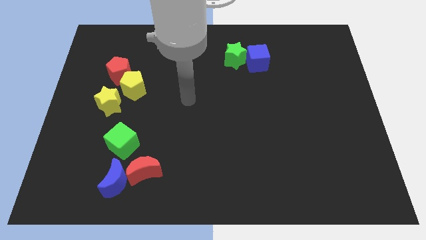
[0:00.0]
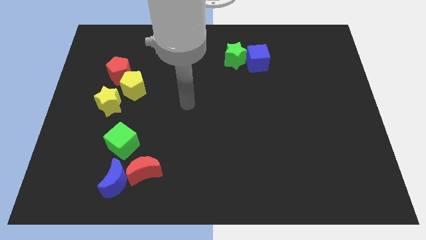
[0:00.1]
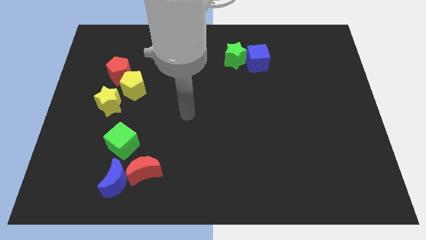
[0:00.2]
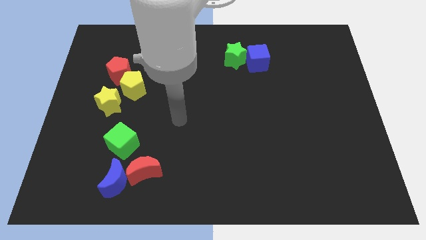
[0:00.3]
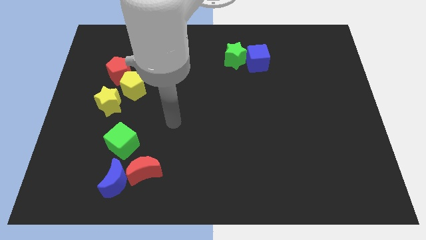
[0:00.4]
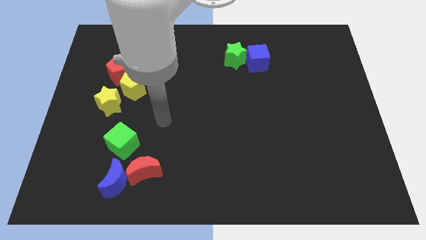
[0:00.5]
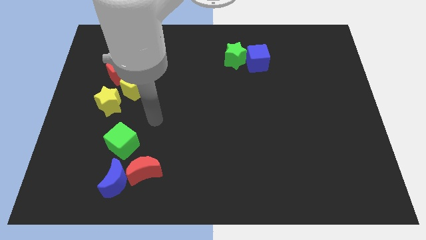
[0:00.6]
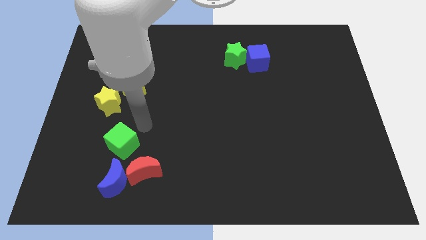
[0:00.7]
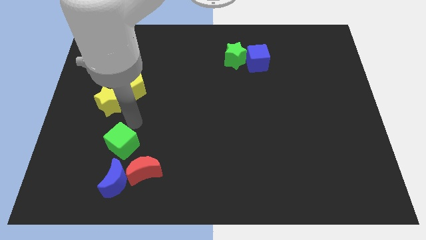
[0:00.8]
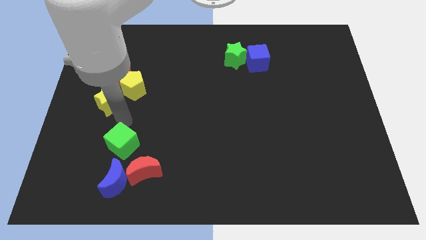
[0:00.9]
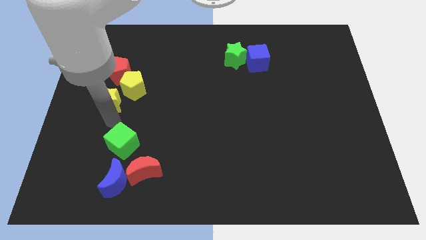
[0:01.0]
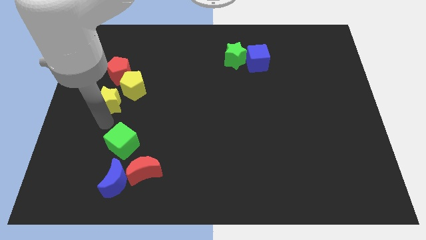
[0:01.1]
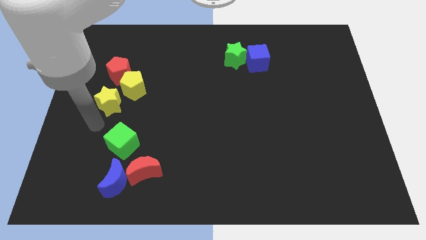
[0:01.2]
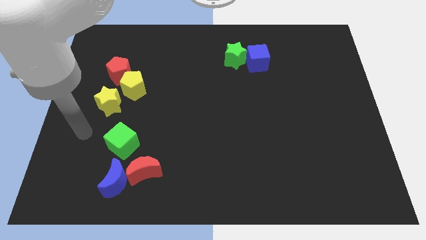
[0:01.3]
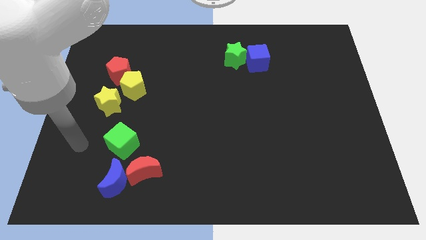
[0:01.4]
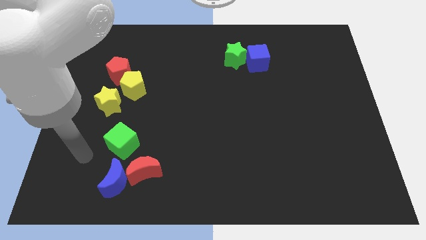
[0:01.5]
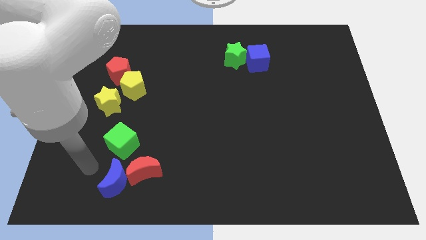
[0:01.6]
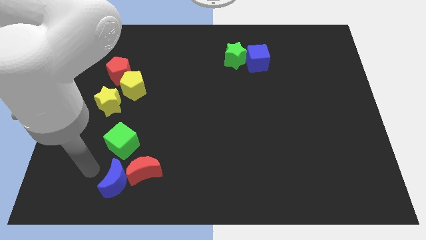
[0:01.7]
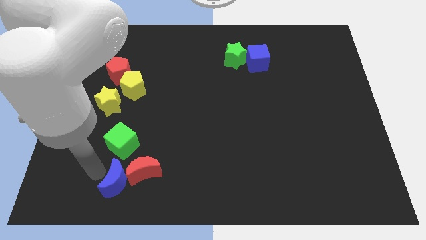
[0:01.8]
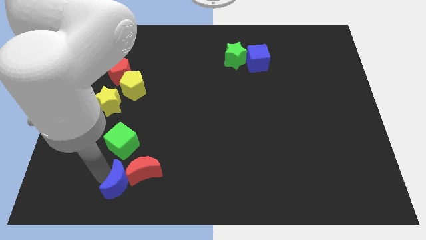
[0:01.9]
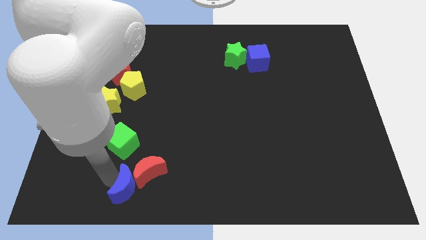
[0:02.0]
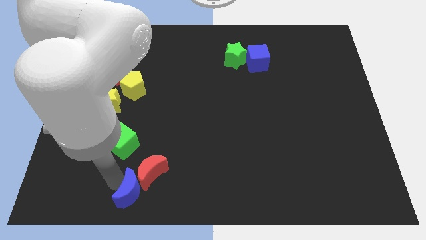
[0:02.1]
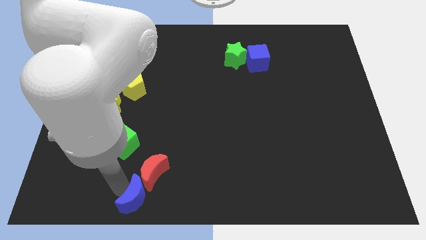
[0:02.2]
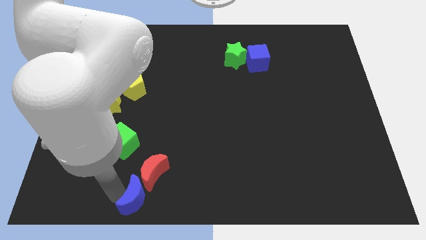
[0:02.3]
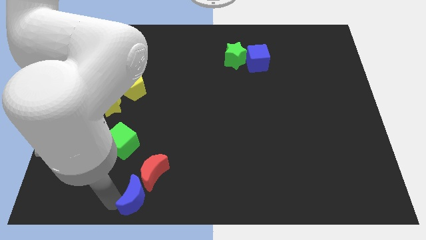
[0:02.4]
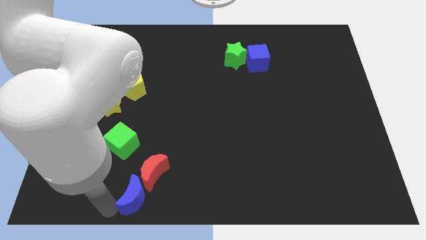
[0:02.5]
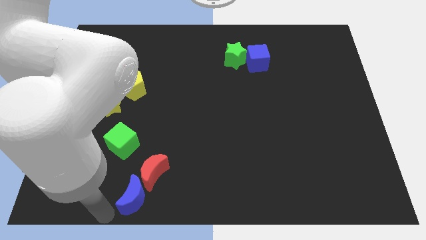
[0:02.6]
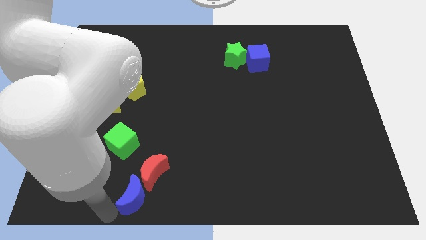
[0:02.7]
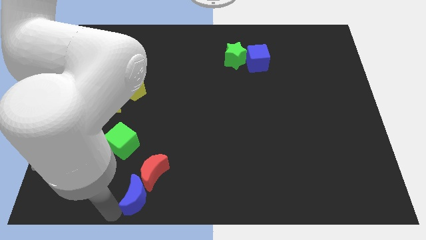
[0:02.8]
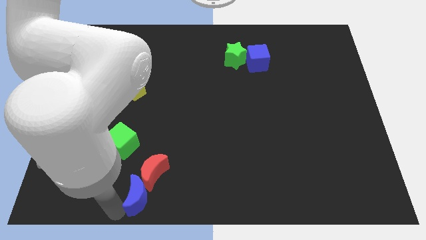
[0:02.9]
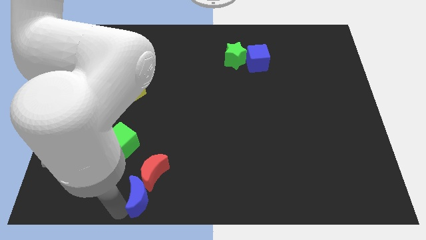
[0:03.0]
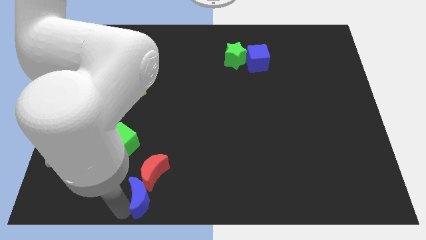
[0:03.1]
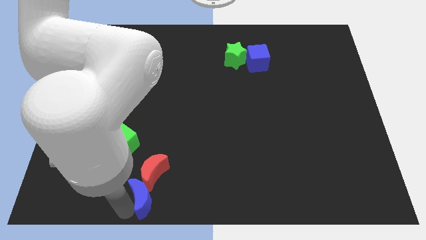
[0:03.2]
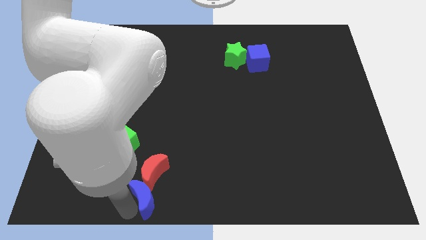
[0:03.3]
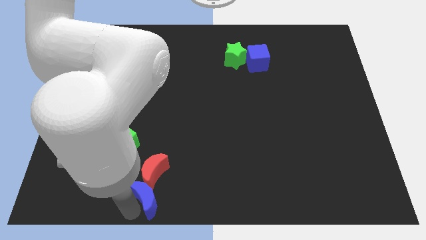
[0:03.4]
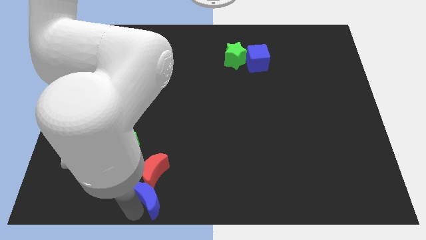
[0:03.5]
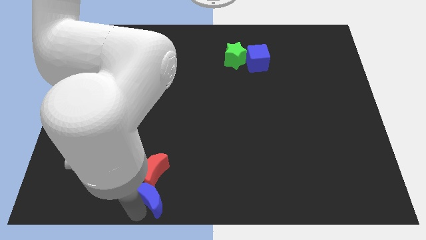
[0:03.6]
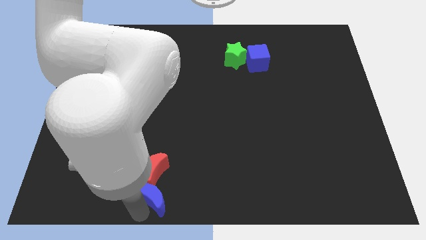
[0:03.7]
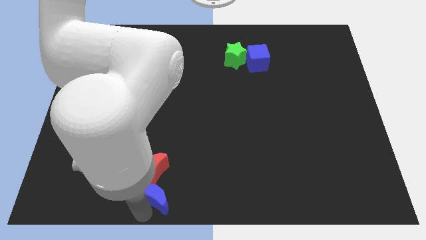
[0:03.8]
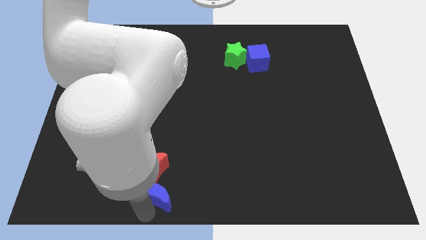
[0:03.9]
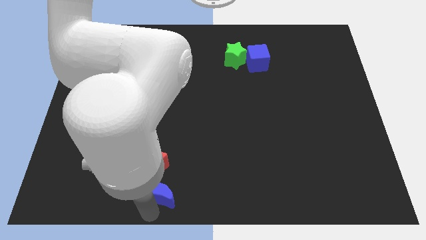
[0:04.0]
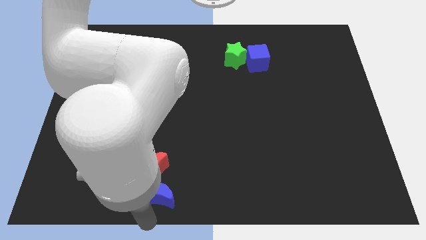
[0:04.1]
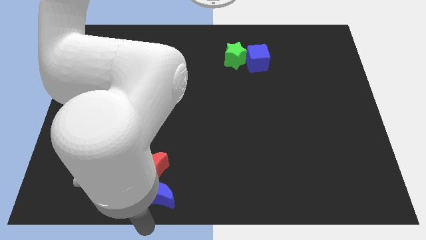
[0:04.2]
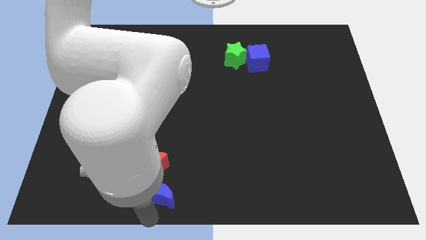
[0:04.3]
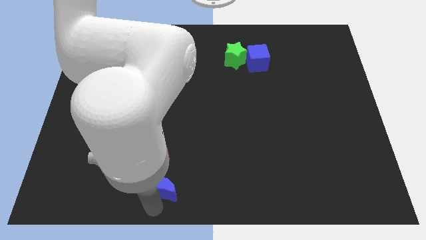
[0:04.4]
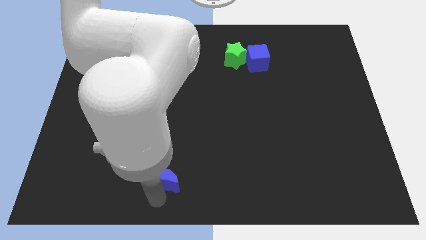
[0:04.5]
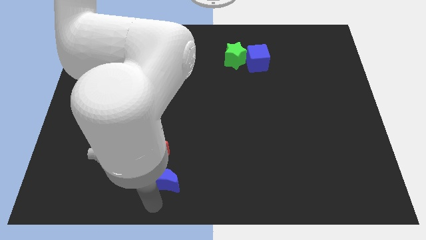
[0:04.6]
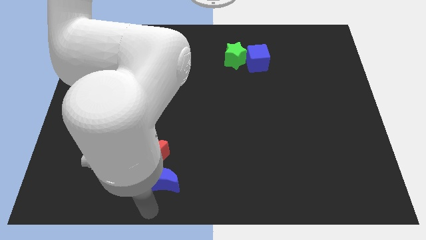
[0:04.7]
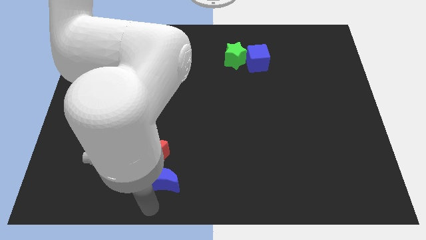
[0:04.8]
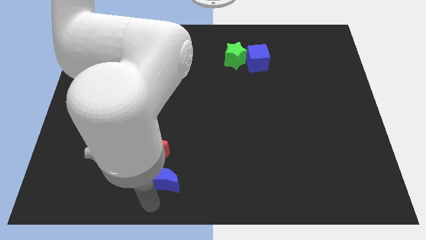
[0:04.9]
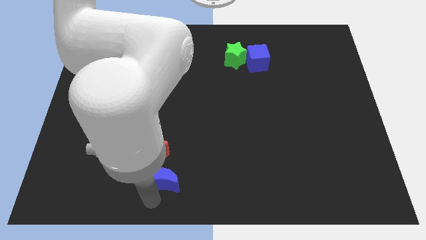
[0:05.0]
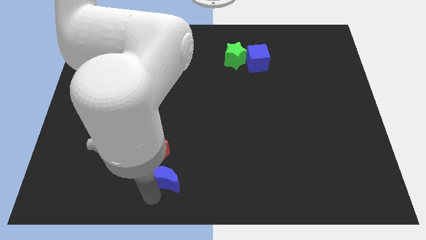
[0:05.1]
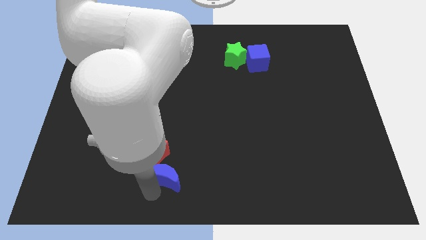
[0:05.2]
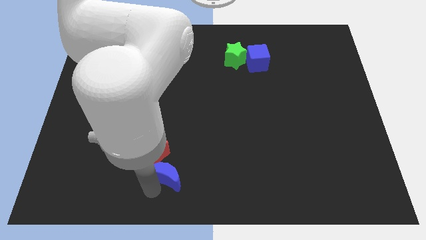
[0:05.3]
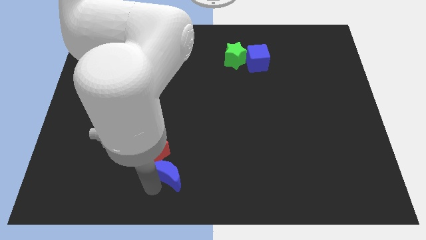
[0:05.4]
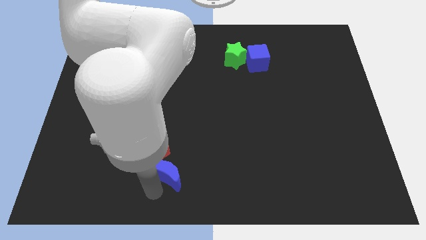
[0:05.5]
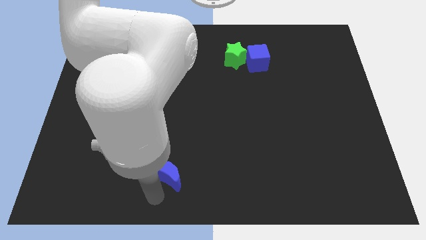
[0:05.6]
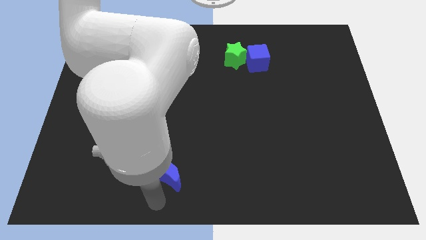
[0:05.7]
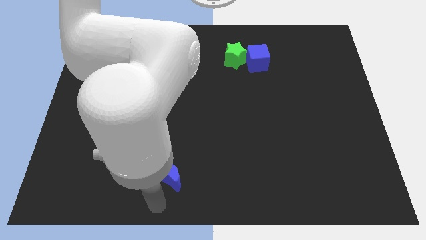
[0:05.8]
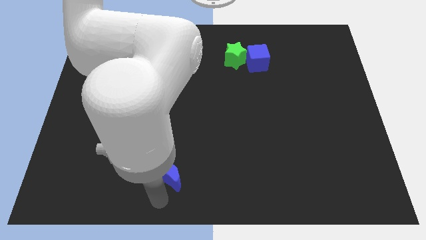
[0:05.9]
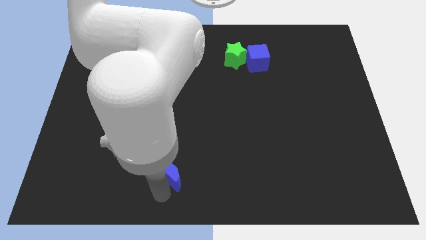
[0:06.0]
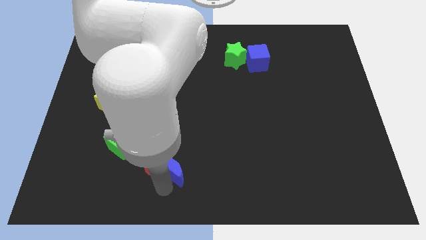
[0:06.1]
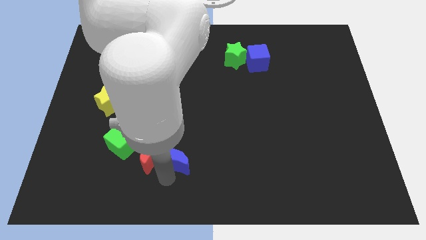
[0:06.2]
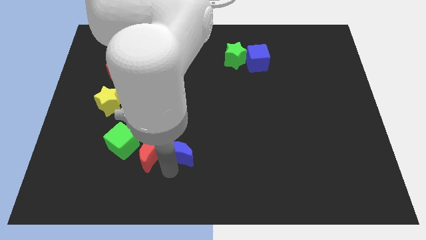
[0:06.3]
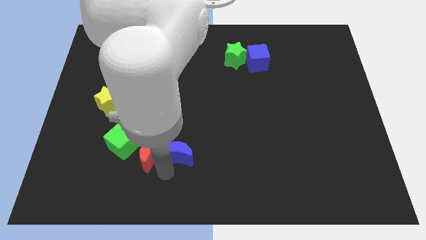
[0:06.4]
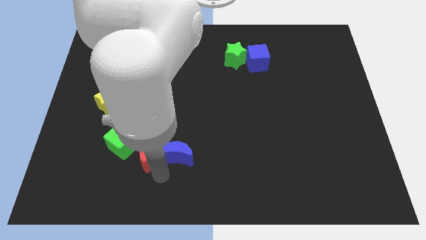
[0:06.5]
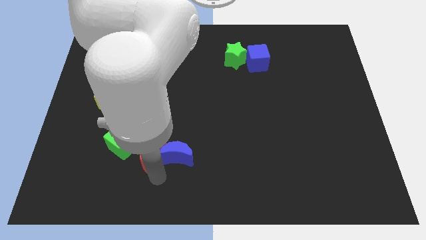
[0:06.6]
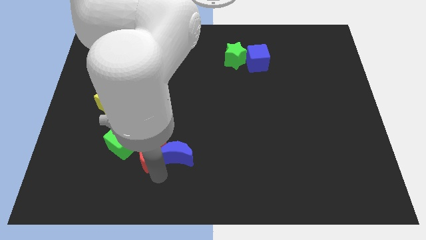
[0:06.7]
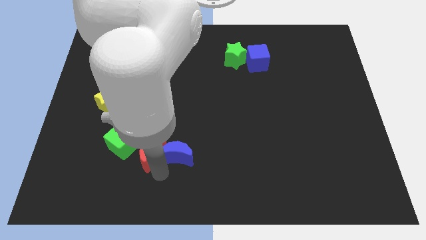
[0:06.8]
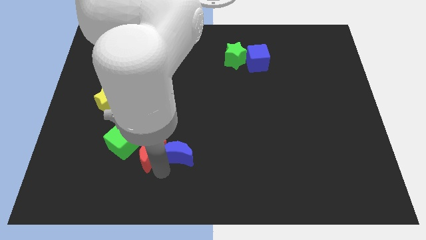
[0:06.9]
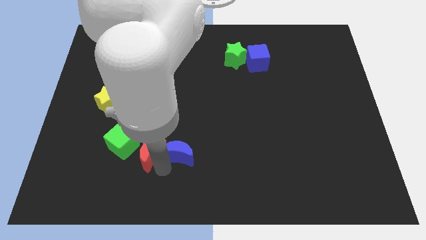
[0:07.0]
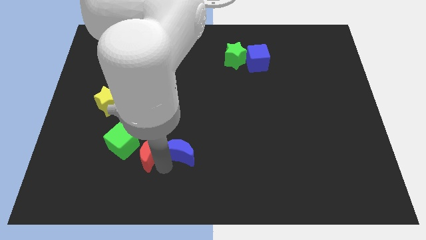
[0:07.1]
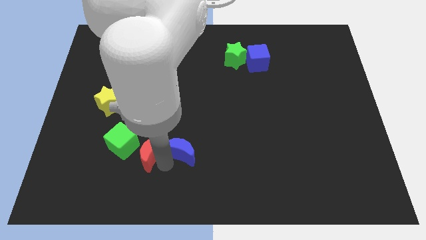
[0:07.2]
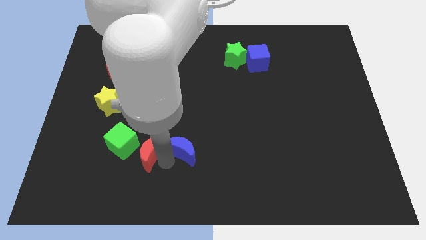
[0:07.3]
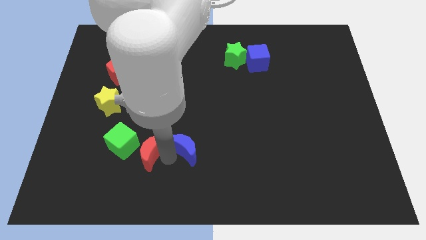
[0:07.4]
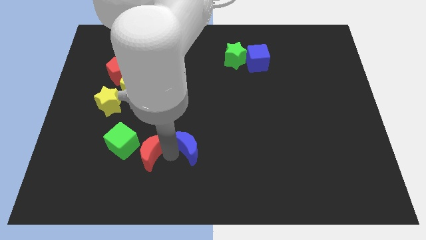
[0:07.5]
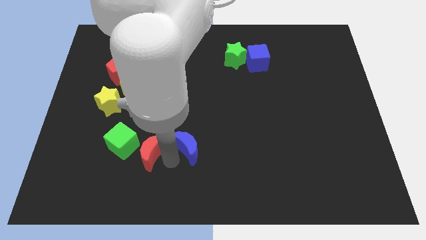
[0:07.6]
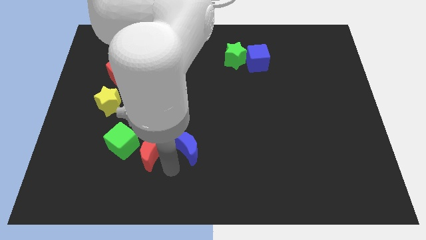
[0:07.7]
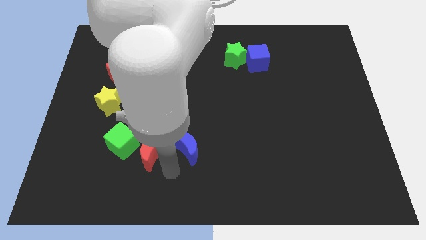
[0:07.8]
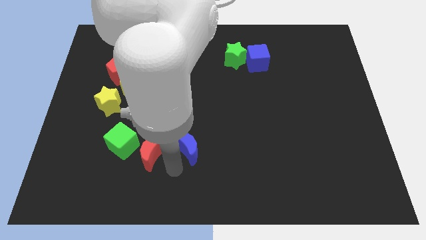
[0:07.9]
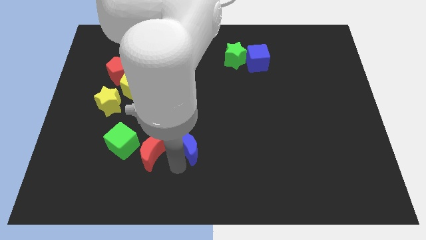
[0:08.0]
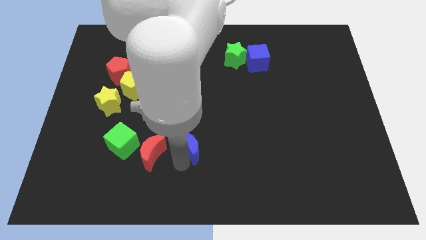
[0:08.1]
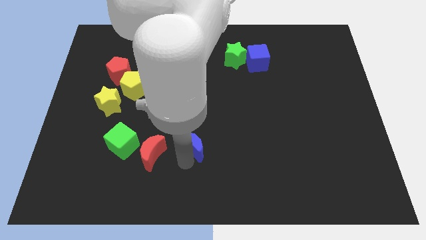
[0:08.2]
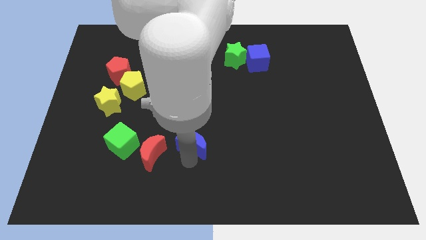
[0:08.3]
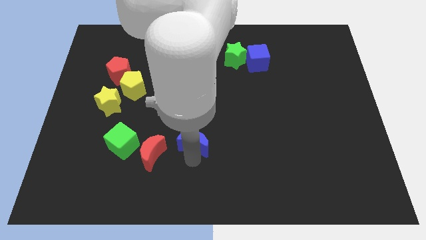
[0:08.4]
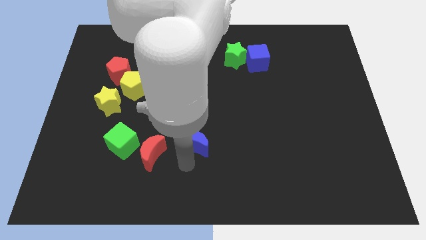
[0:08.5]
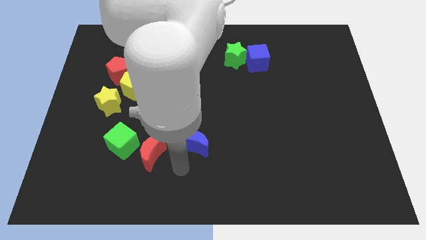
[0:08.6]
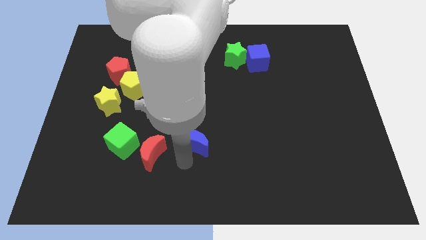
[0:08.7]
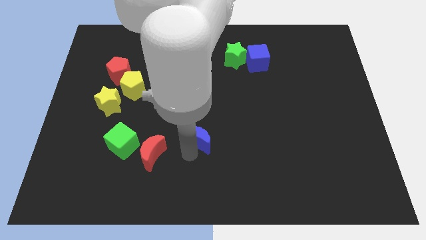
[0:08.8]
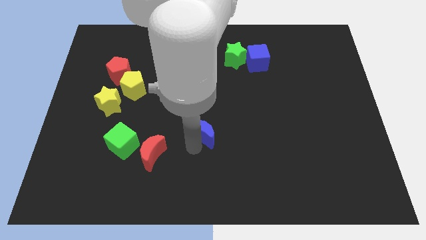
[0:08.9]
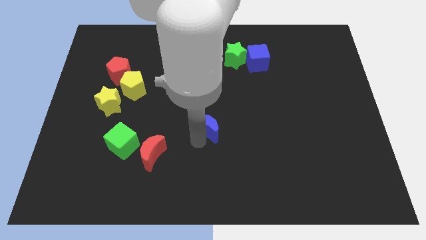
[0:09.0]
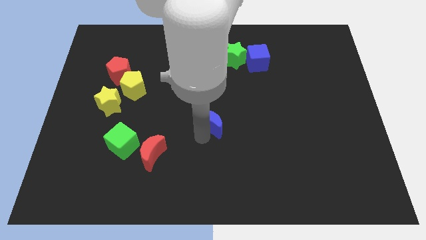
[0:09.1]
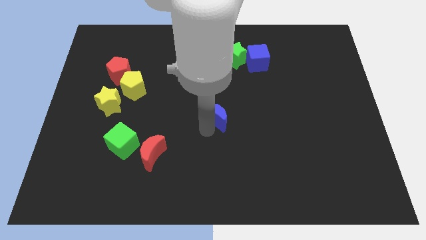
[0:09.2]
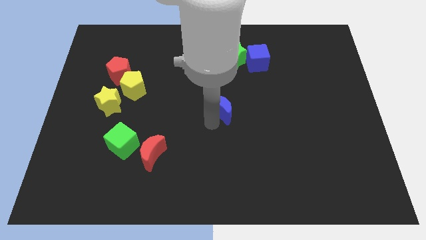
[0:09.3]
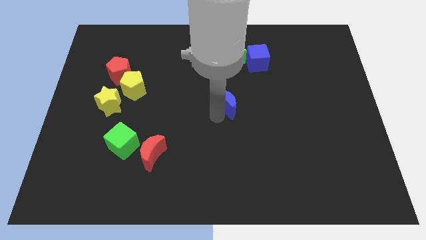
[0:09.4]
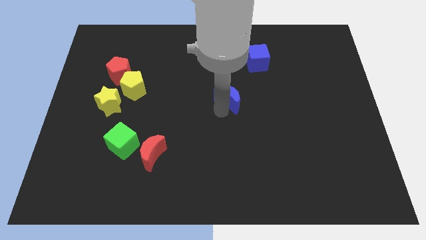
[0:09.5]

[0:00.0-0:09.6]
push the blue moon to the bottom of the green star
